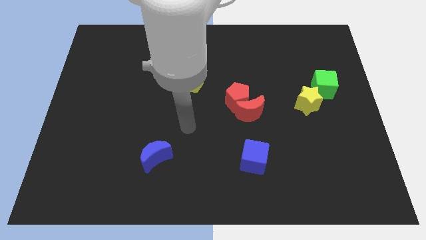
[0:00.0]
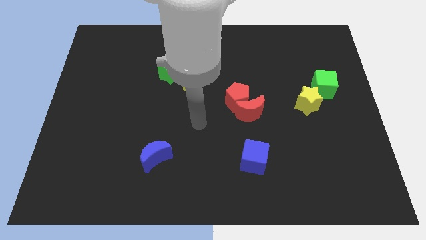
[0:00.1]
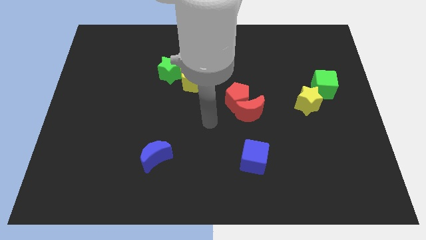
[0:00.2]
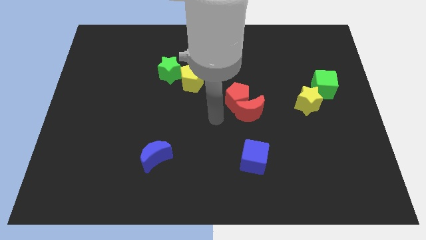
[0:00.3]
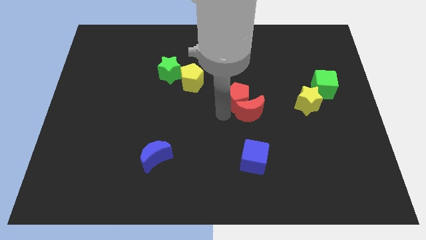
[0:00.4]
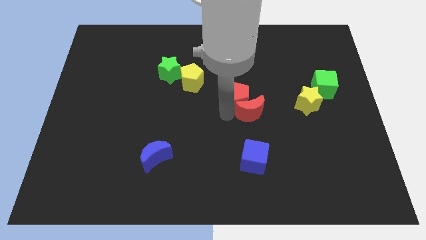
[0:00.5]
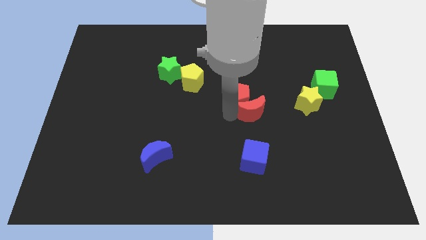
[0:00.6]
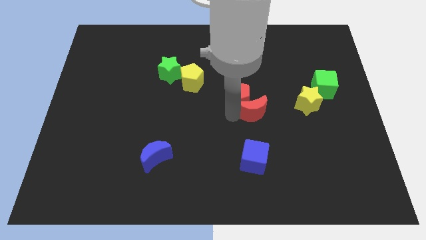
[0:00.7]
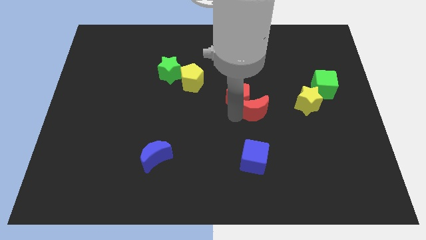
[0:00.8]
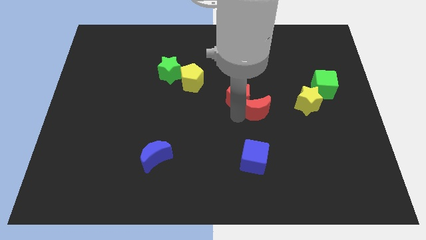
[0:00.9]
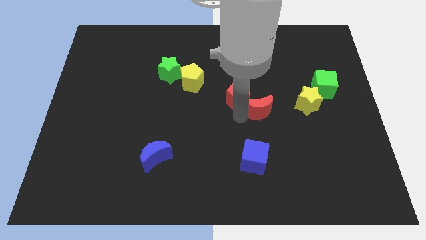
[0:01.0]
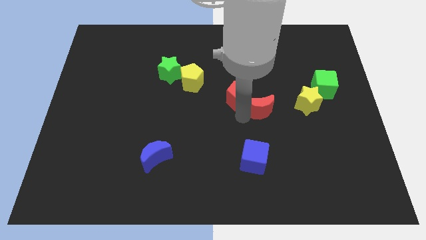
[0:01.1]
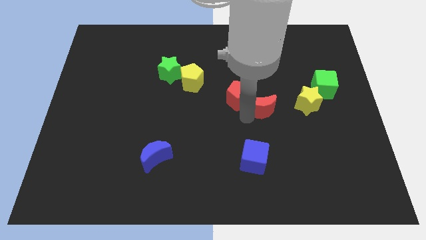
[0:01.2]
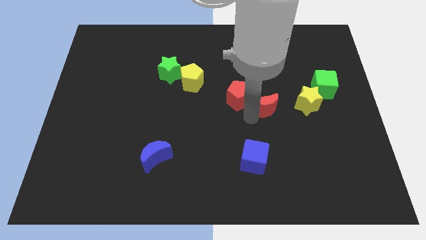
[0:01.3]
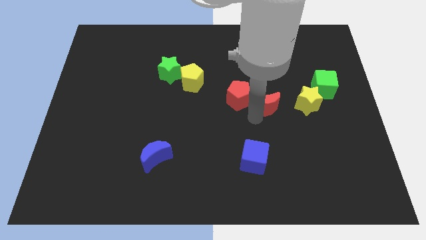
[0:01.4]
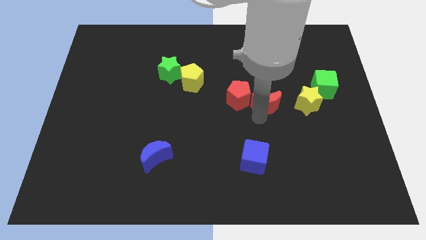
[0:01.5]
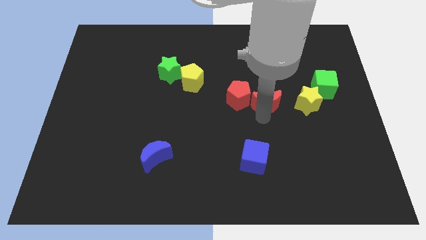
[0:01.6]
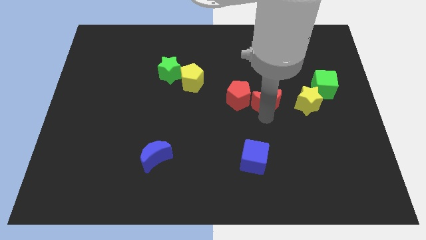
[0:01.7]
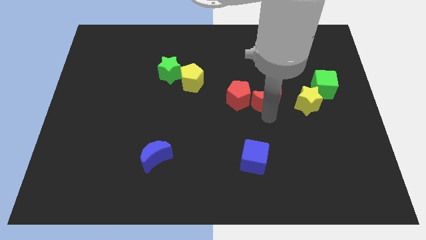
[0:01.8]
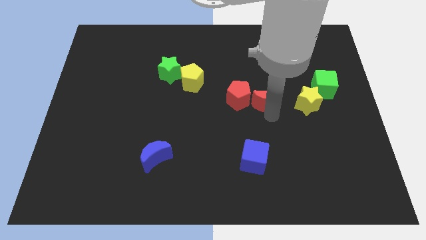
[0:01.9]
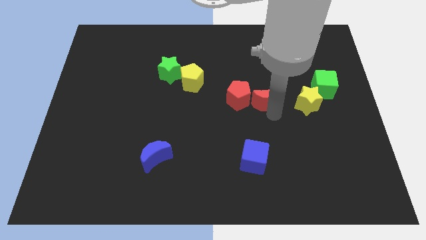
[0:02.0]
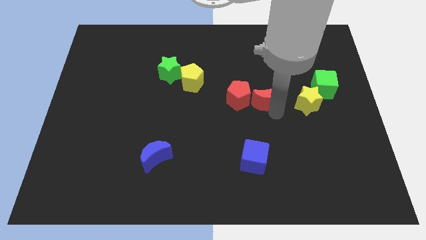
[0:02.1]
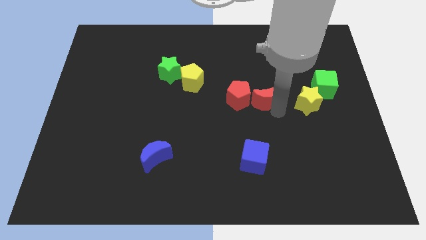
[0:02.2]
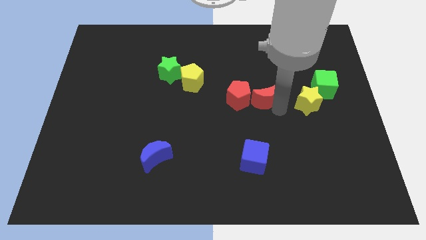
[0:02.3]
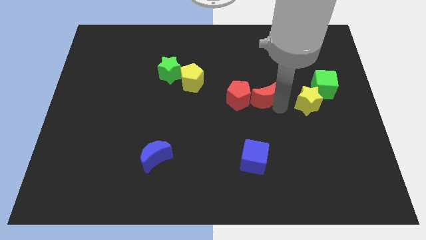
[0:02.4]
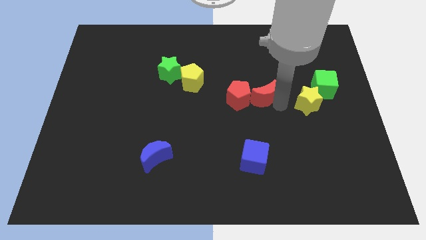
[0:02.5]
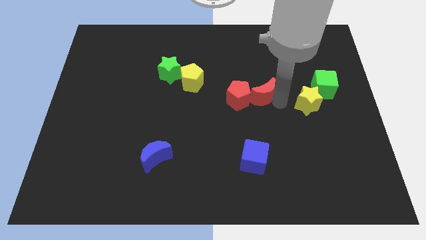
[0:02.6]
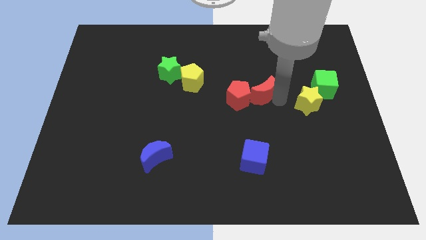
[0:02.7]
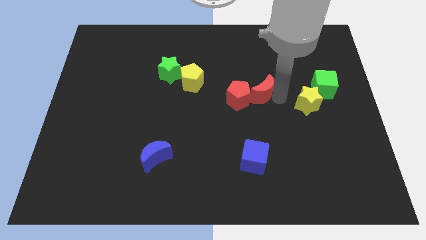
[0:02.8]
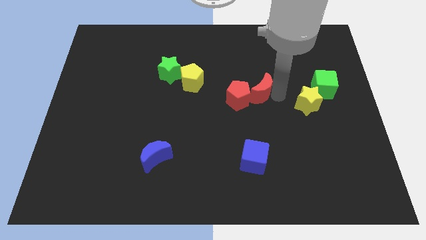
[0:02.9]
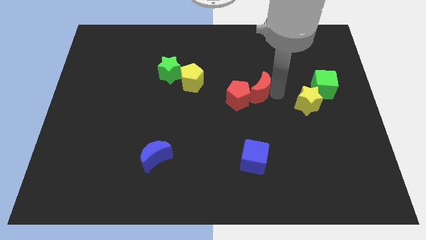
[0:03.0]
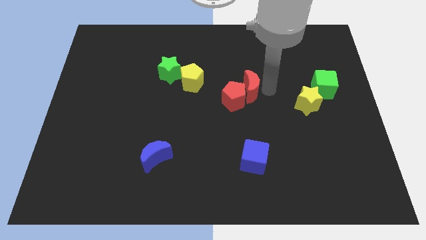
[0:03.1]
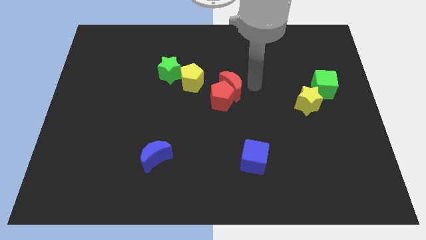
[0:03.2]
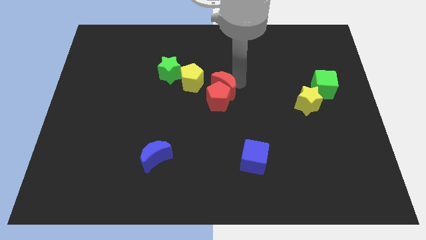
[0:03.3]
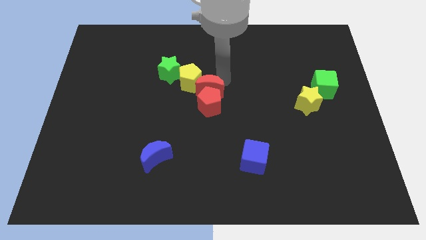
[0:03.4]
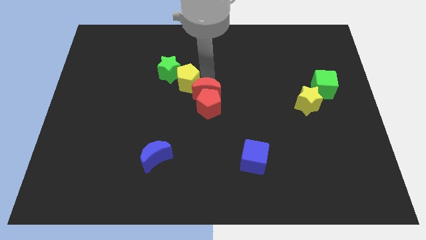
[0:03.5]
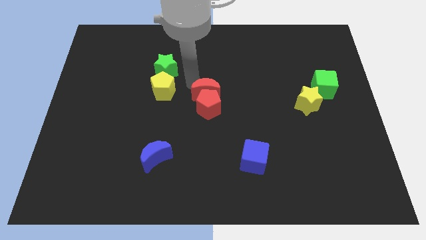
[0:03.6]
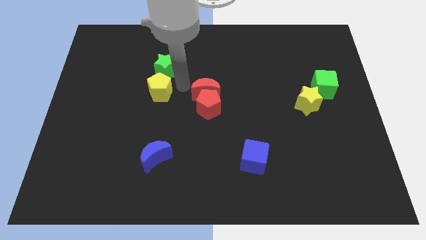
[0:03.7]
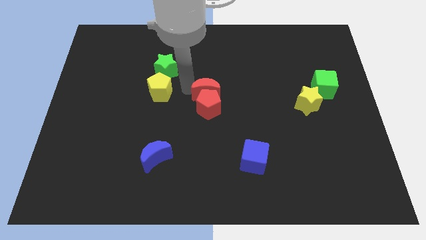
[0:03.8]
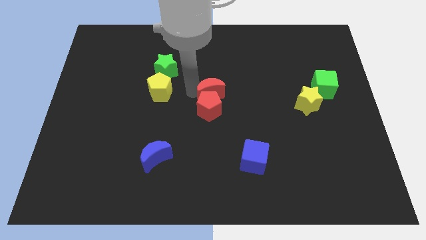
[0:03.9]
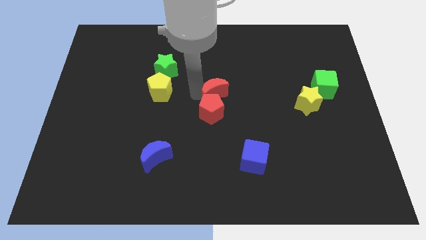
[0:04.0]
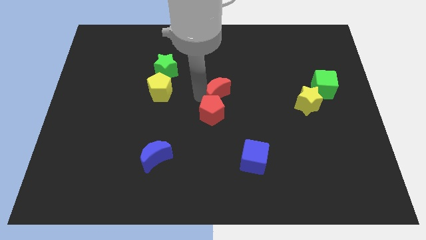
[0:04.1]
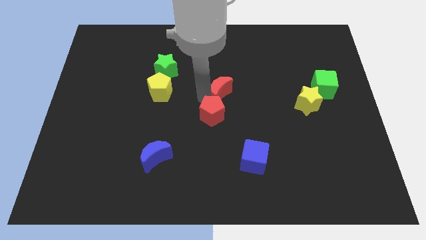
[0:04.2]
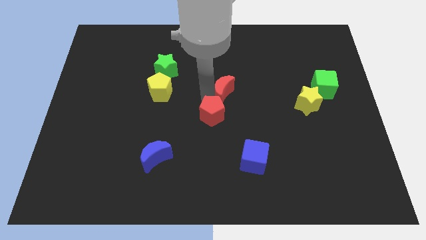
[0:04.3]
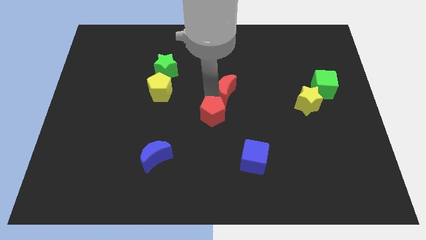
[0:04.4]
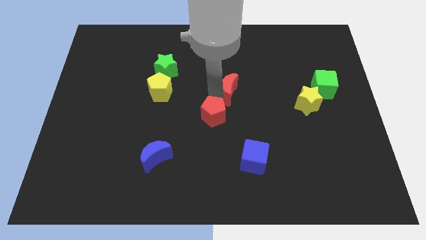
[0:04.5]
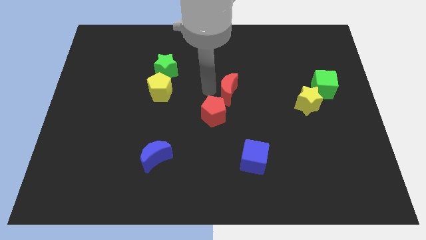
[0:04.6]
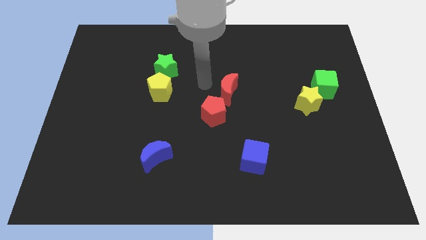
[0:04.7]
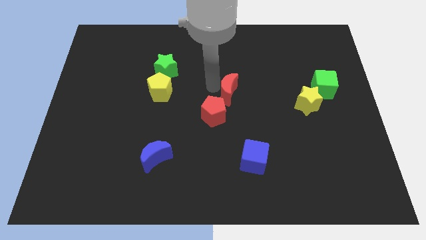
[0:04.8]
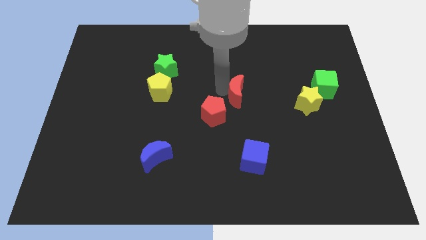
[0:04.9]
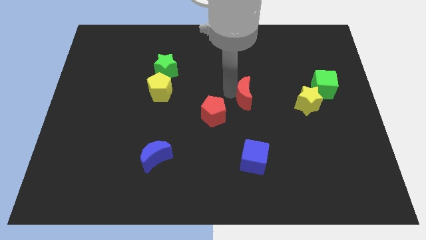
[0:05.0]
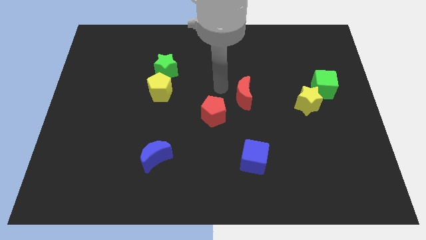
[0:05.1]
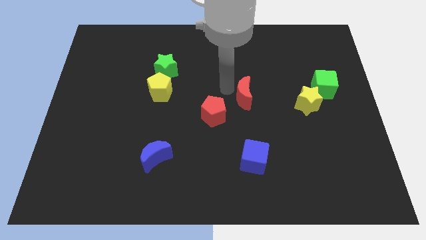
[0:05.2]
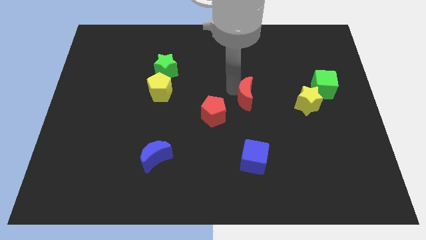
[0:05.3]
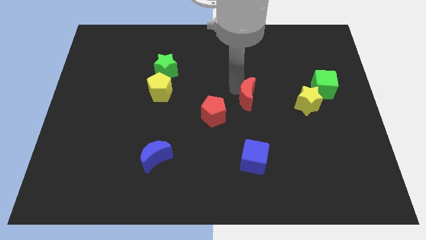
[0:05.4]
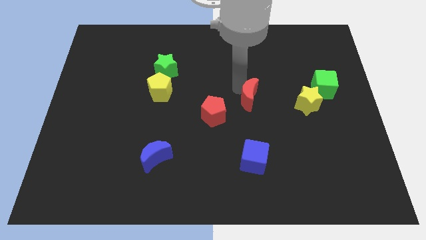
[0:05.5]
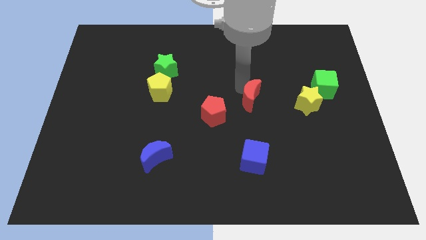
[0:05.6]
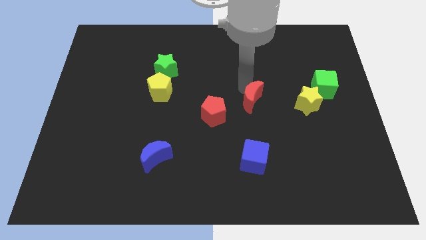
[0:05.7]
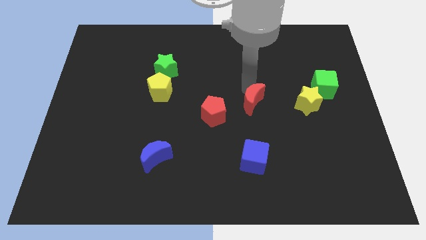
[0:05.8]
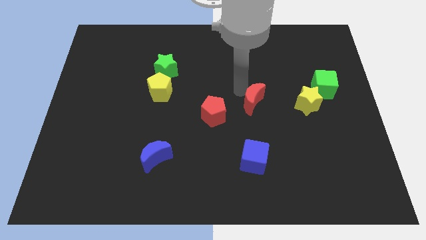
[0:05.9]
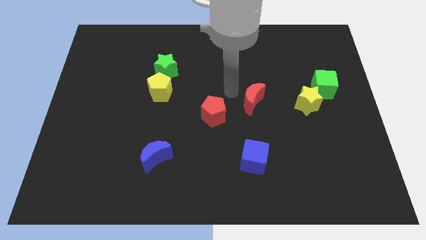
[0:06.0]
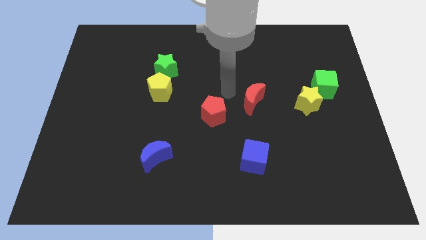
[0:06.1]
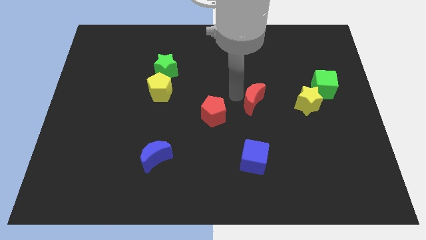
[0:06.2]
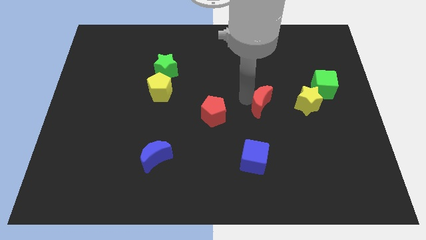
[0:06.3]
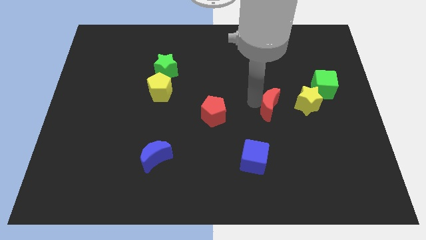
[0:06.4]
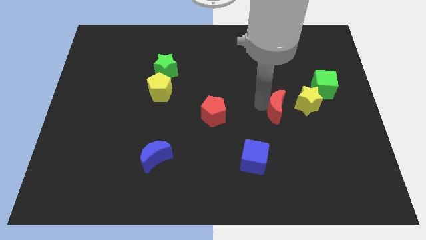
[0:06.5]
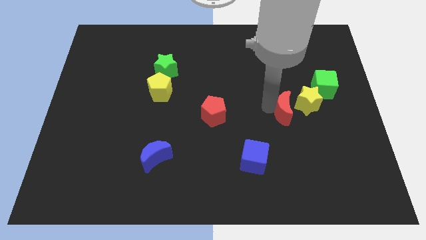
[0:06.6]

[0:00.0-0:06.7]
slide the red moon slightly right

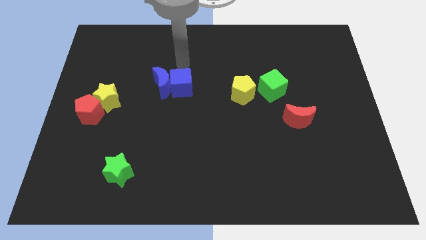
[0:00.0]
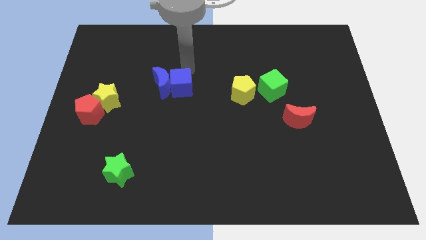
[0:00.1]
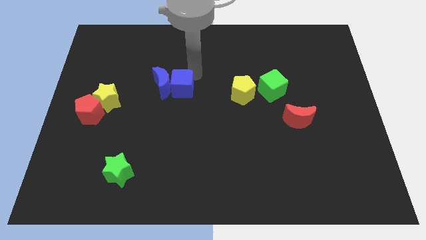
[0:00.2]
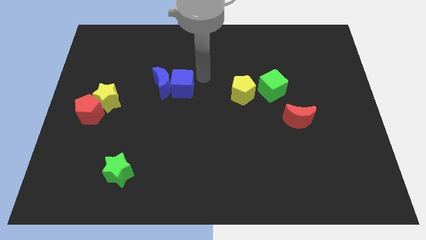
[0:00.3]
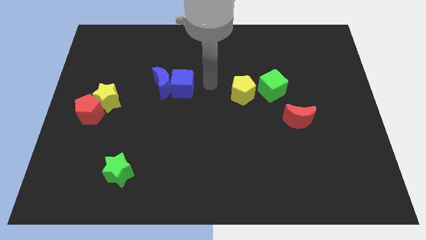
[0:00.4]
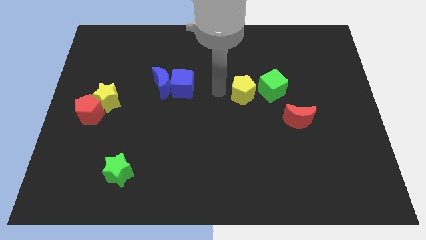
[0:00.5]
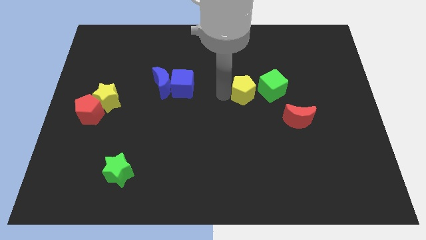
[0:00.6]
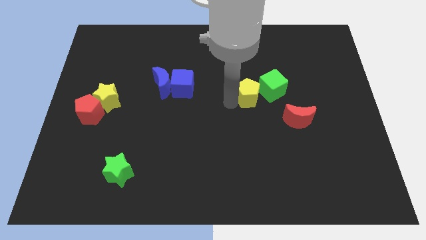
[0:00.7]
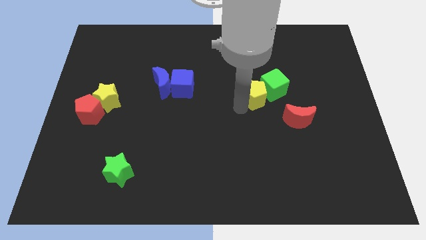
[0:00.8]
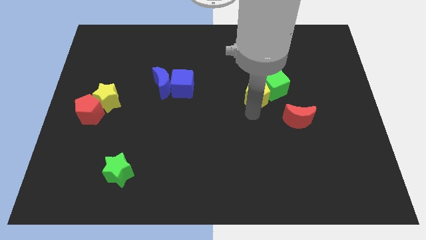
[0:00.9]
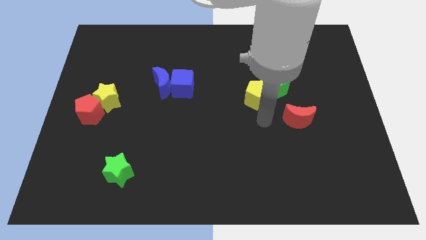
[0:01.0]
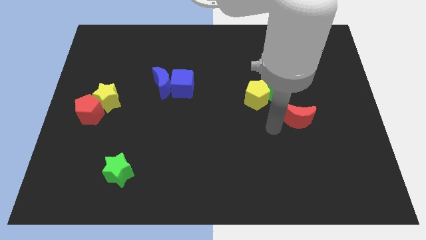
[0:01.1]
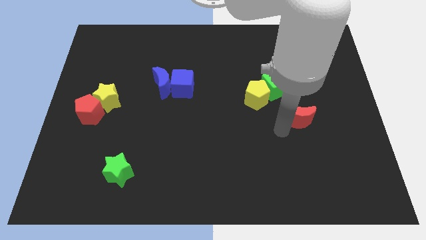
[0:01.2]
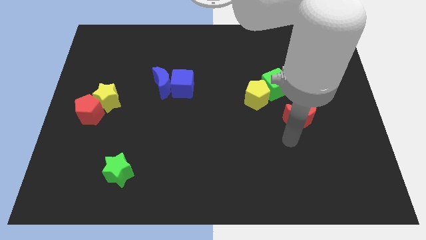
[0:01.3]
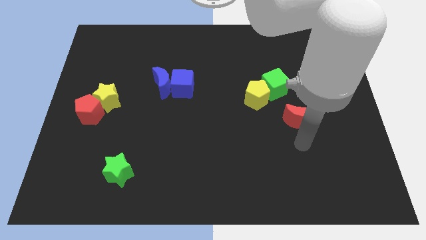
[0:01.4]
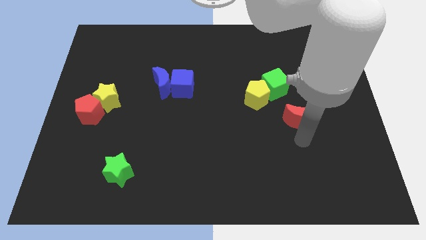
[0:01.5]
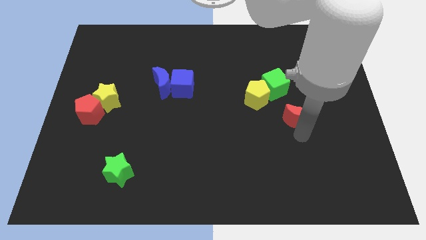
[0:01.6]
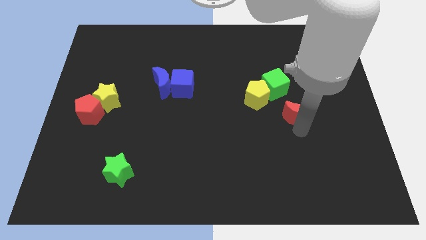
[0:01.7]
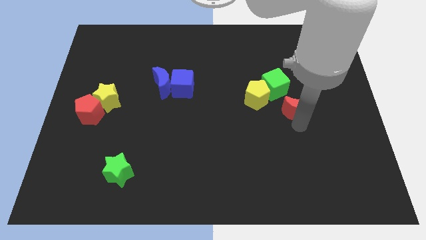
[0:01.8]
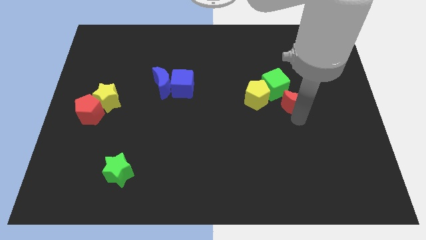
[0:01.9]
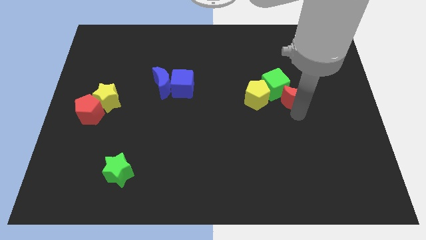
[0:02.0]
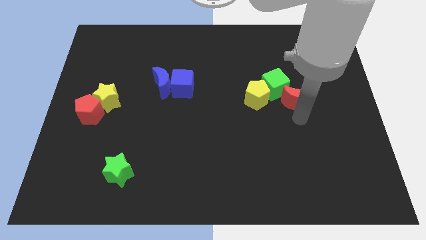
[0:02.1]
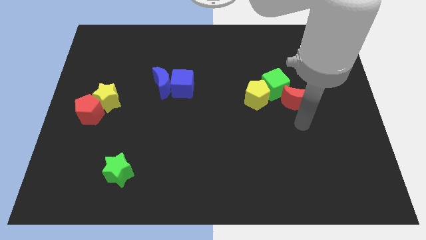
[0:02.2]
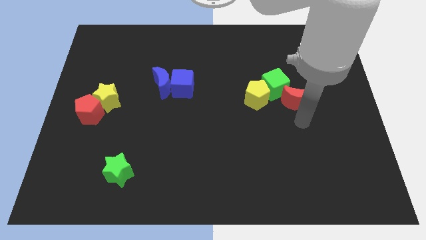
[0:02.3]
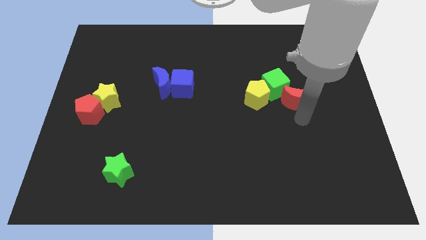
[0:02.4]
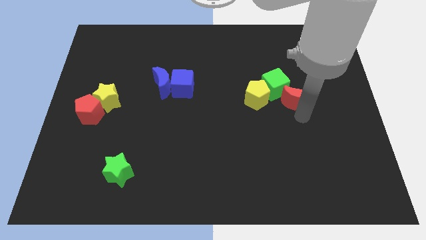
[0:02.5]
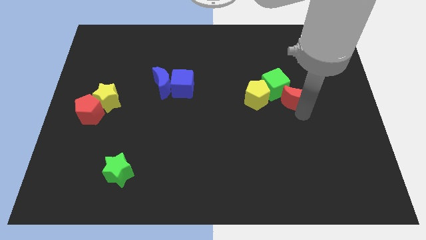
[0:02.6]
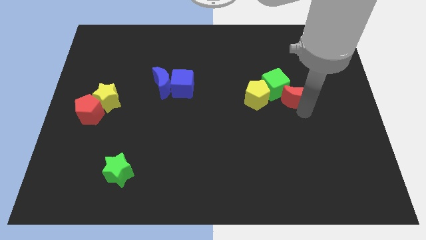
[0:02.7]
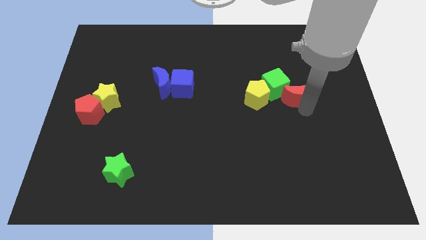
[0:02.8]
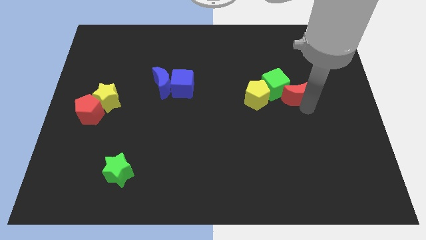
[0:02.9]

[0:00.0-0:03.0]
move the red moon a little bit upwards
